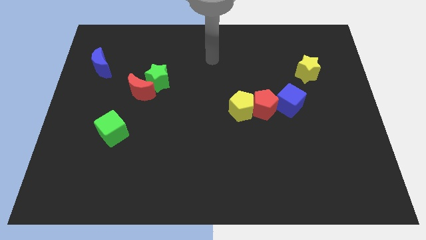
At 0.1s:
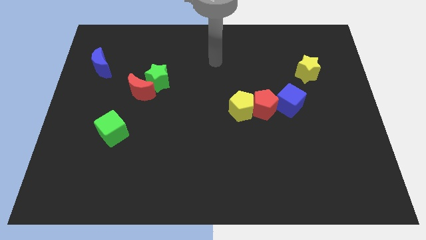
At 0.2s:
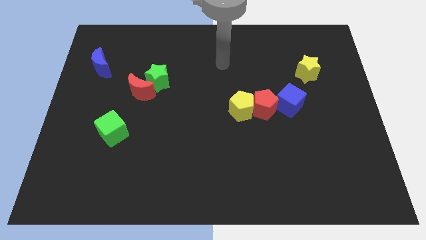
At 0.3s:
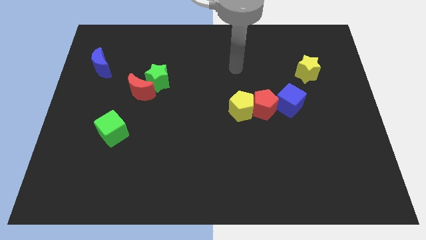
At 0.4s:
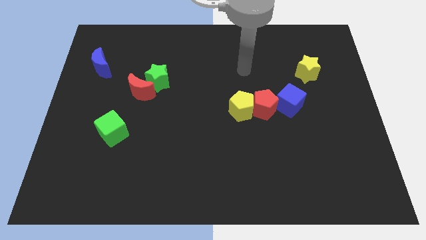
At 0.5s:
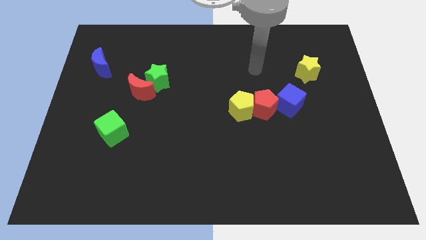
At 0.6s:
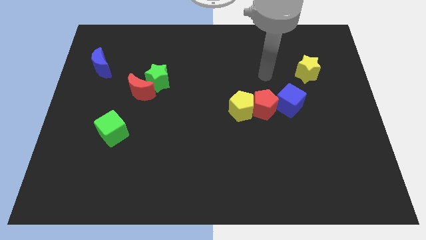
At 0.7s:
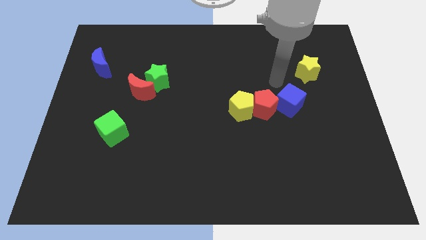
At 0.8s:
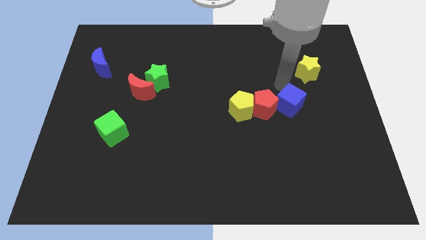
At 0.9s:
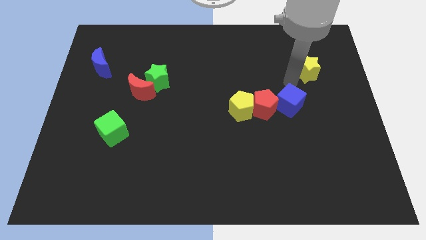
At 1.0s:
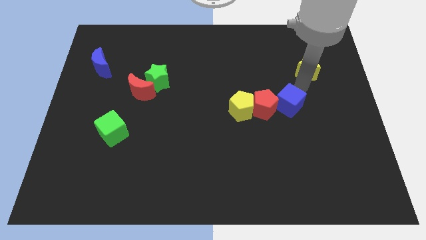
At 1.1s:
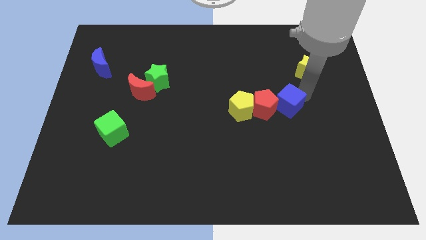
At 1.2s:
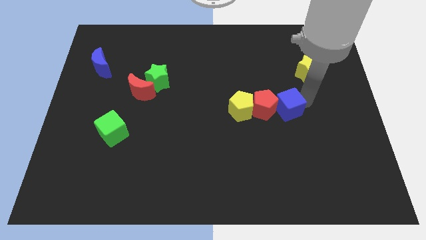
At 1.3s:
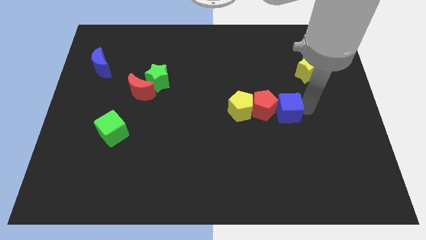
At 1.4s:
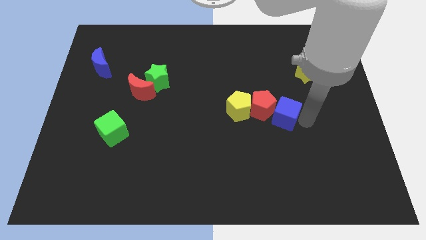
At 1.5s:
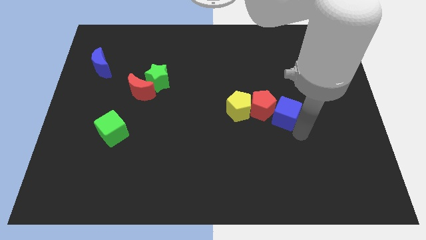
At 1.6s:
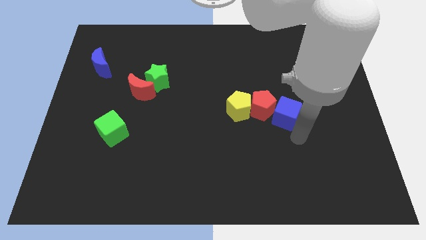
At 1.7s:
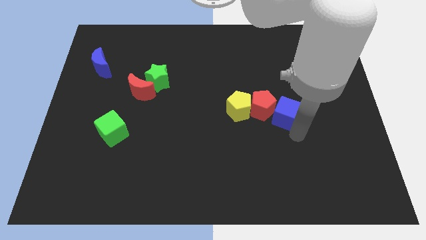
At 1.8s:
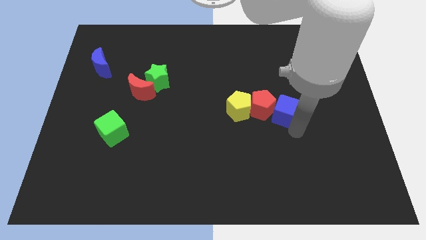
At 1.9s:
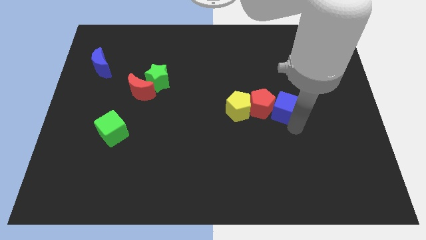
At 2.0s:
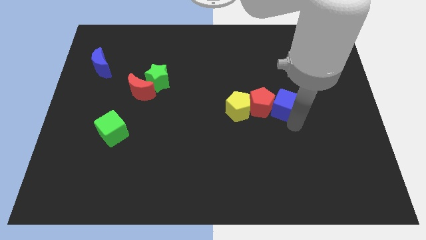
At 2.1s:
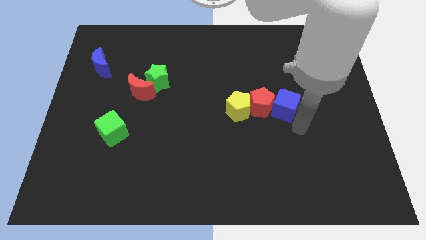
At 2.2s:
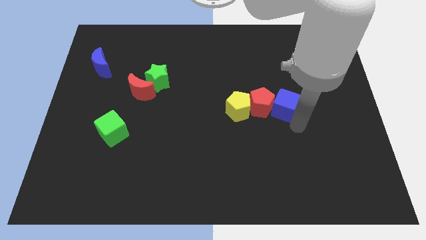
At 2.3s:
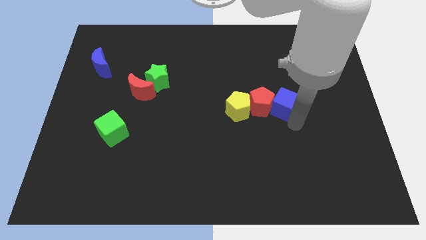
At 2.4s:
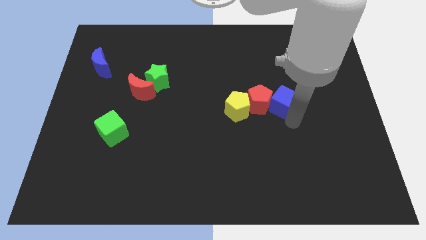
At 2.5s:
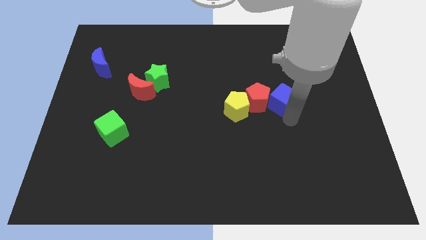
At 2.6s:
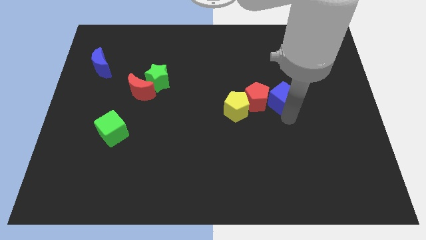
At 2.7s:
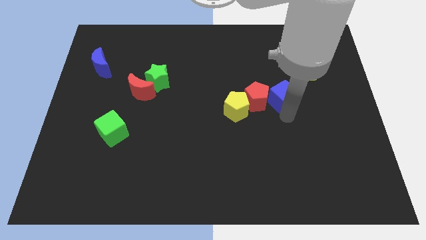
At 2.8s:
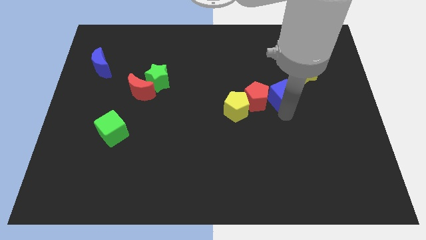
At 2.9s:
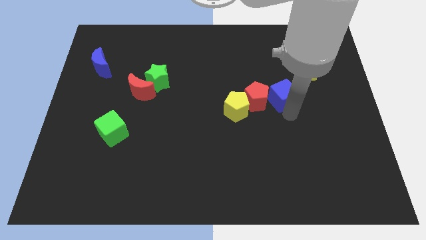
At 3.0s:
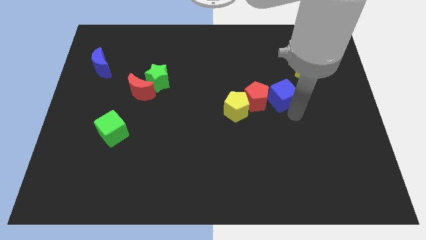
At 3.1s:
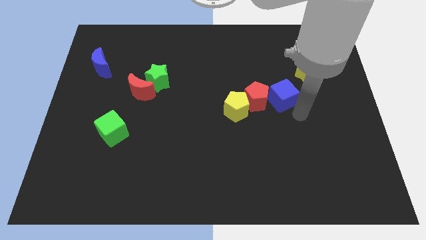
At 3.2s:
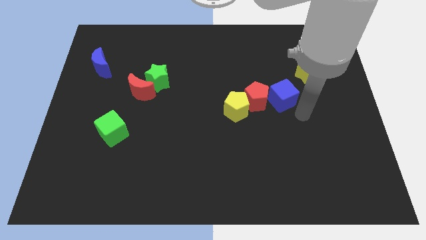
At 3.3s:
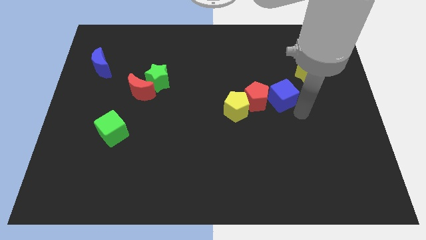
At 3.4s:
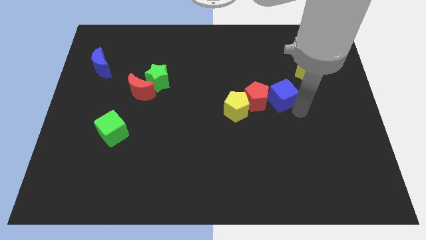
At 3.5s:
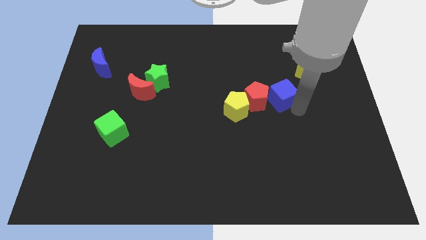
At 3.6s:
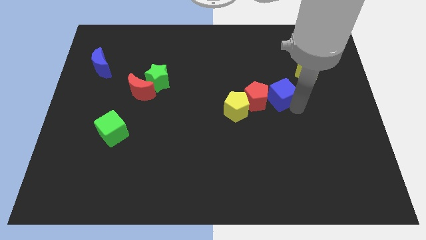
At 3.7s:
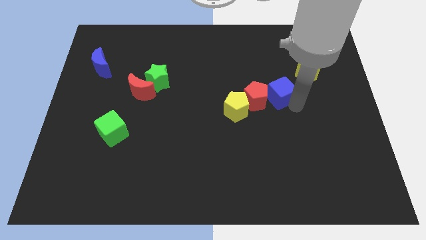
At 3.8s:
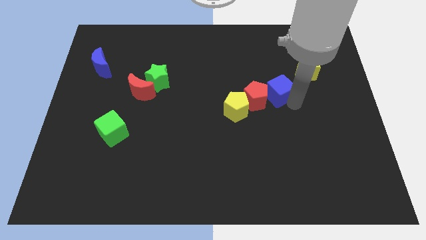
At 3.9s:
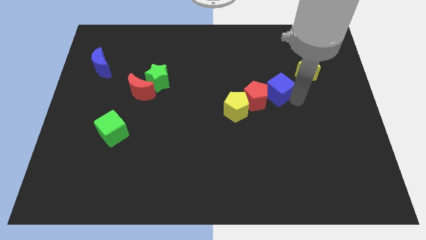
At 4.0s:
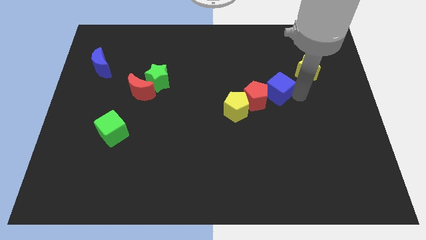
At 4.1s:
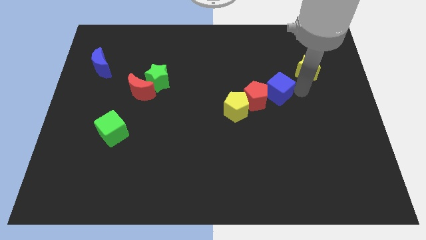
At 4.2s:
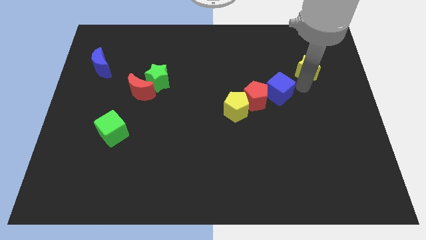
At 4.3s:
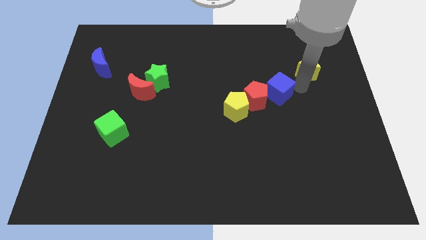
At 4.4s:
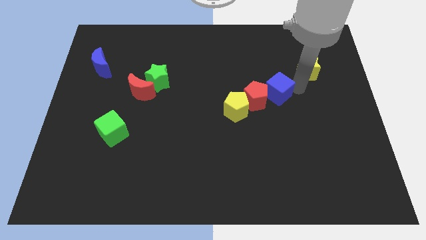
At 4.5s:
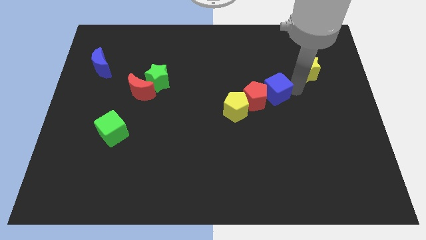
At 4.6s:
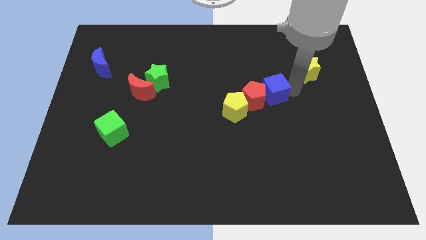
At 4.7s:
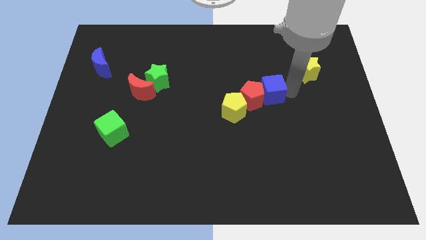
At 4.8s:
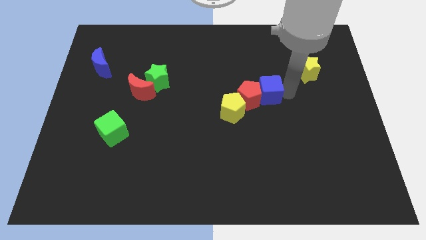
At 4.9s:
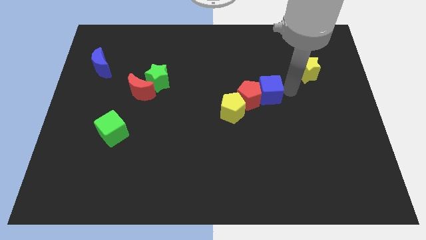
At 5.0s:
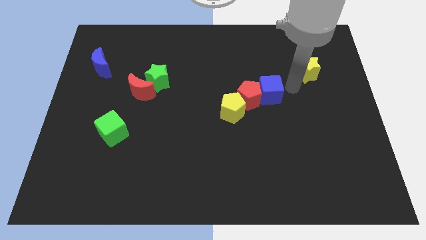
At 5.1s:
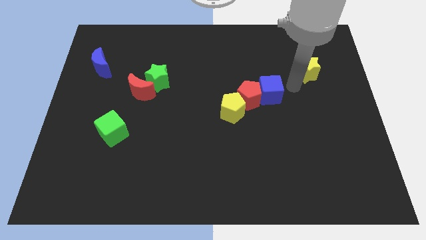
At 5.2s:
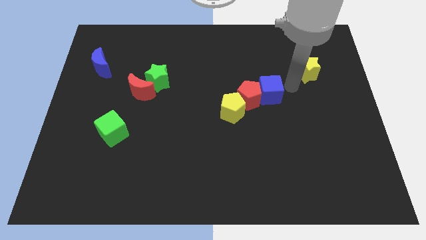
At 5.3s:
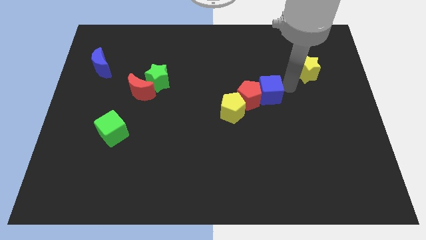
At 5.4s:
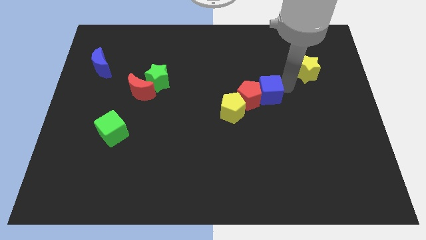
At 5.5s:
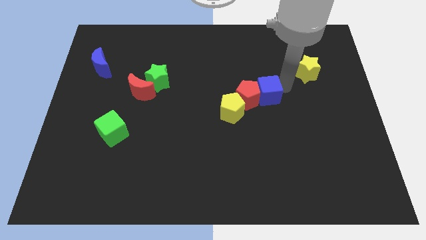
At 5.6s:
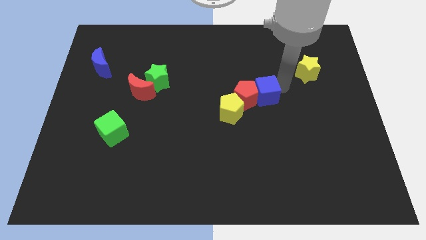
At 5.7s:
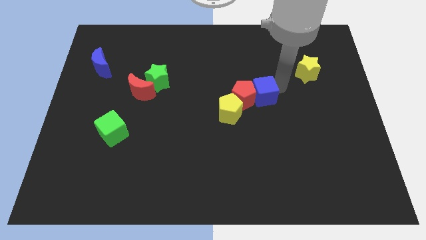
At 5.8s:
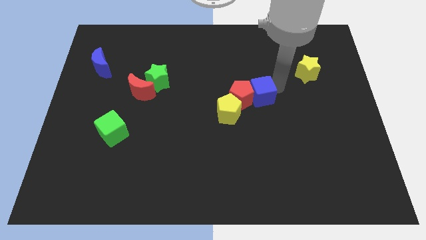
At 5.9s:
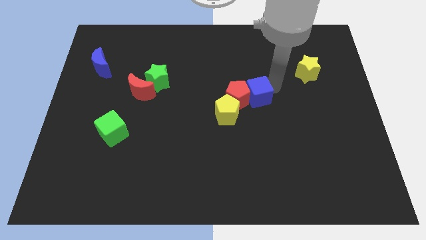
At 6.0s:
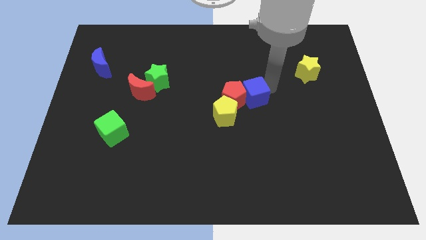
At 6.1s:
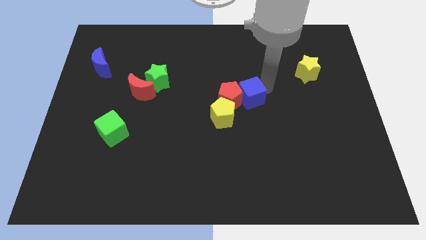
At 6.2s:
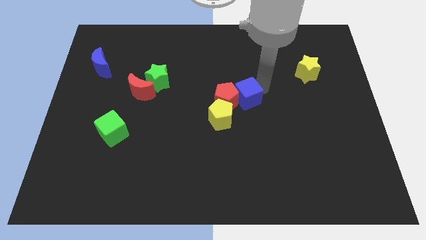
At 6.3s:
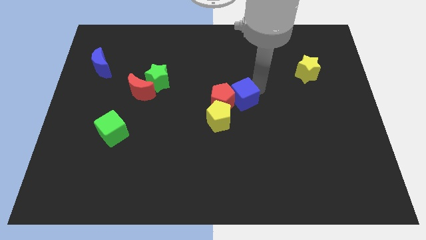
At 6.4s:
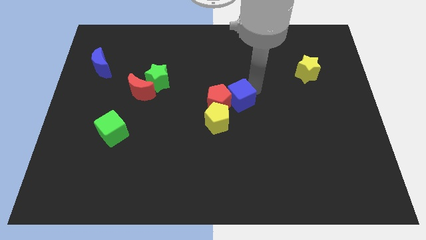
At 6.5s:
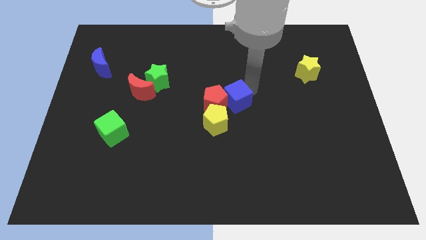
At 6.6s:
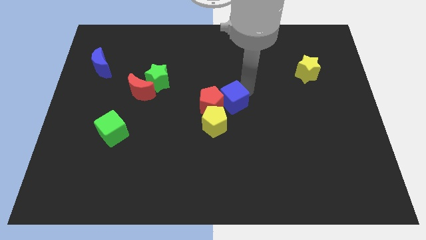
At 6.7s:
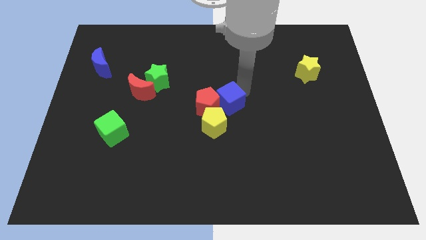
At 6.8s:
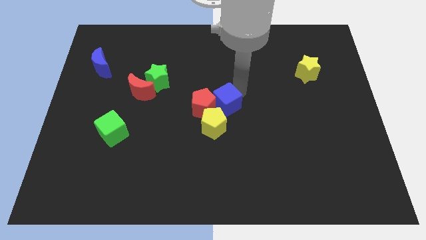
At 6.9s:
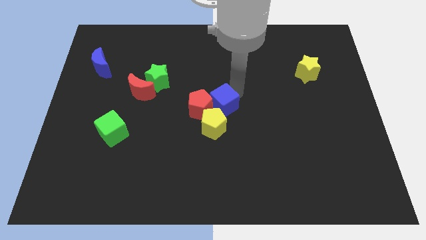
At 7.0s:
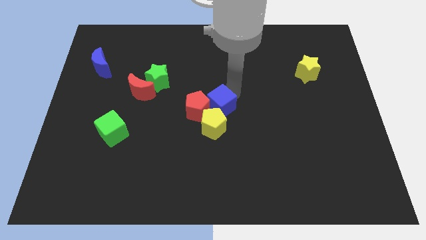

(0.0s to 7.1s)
push the blue cube to the yellow pentagon
